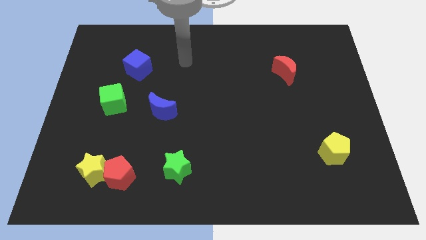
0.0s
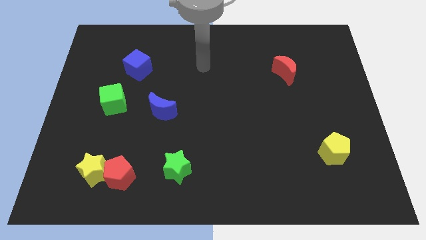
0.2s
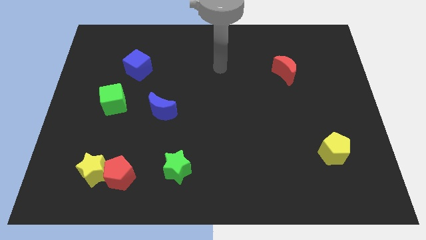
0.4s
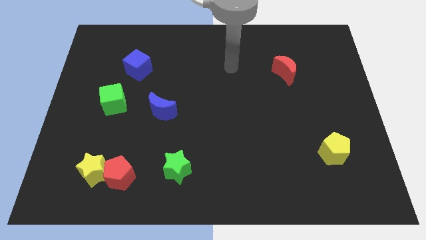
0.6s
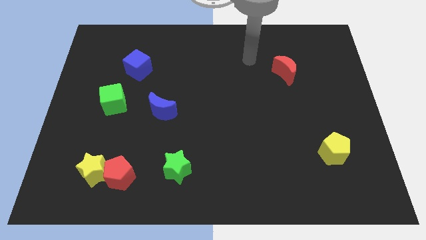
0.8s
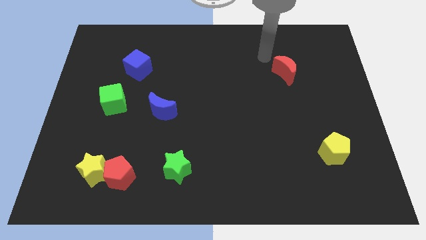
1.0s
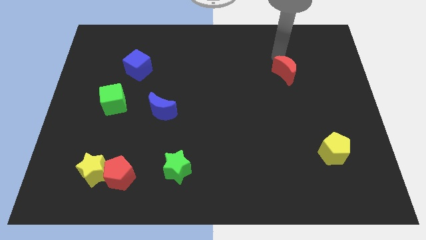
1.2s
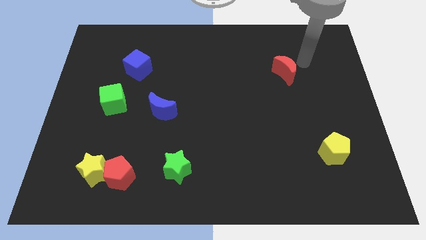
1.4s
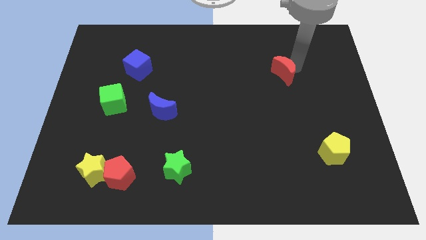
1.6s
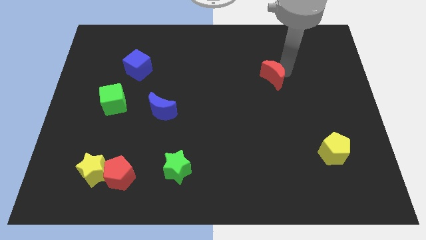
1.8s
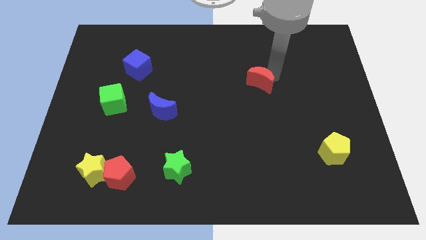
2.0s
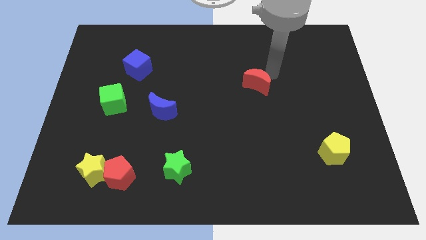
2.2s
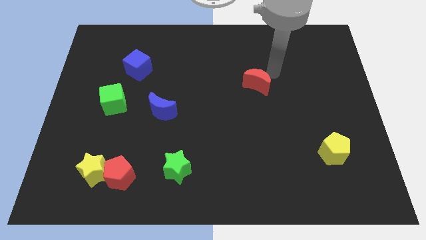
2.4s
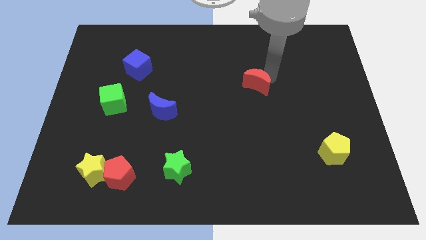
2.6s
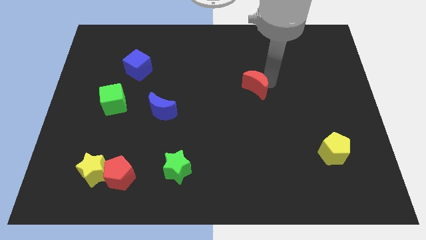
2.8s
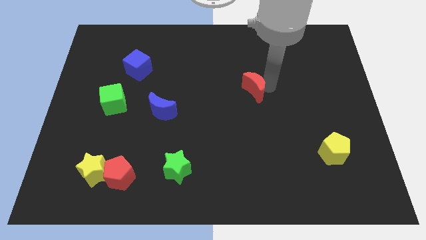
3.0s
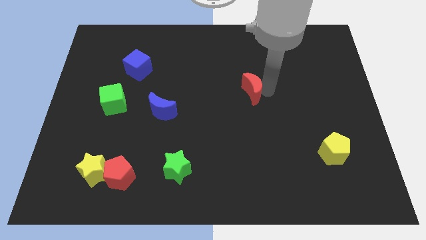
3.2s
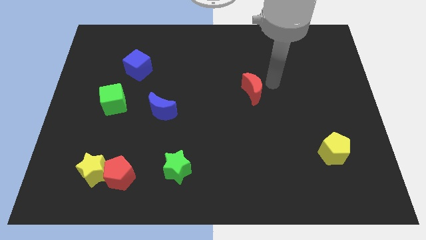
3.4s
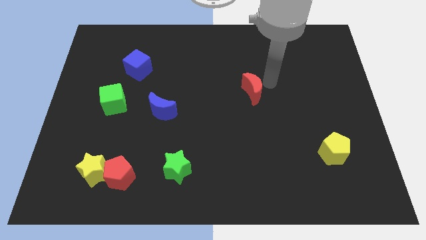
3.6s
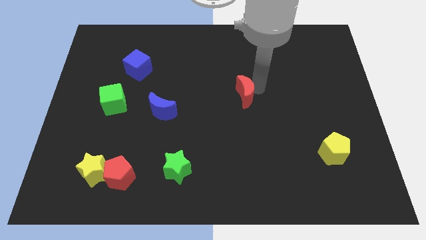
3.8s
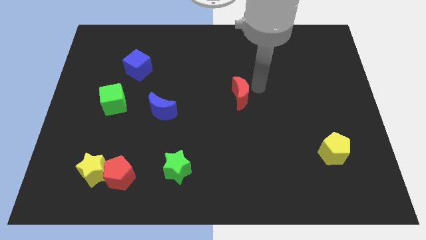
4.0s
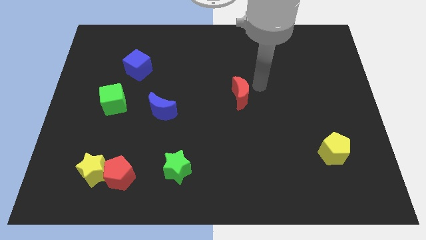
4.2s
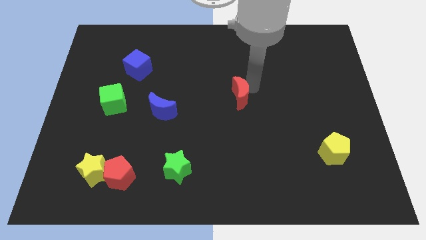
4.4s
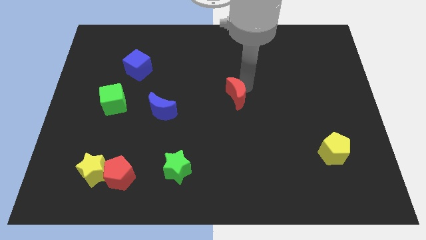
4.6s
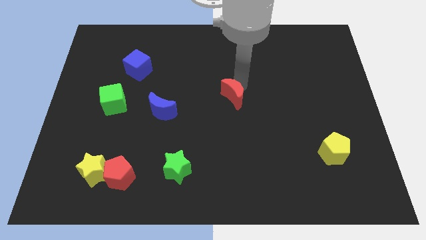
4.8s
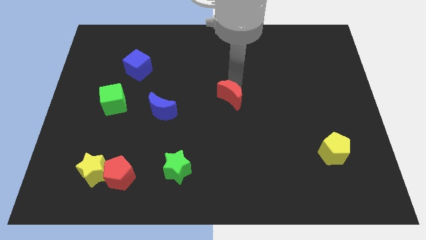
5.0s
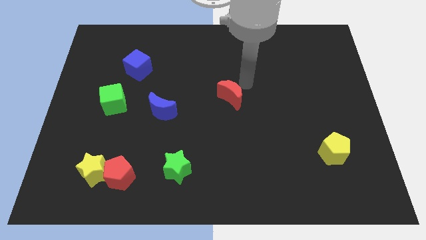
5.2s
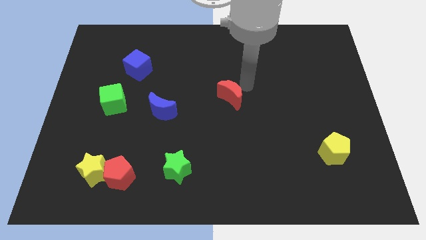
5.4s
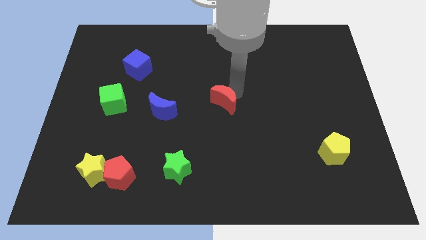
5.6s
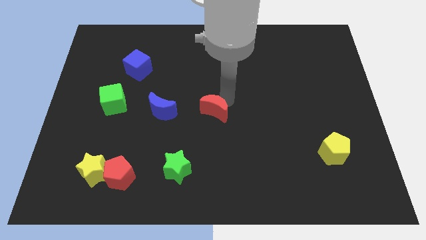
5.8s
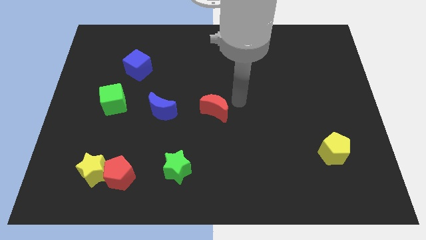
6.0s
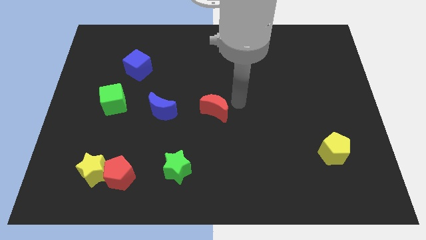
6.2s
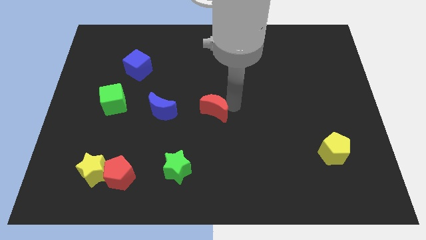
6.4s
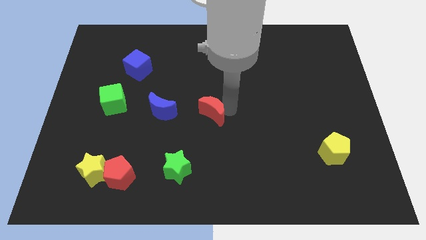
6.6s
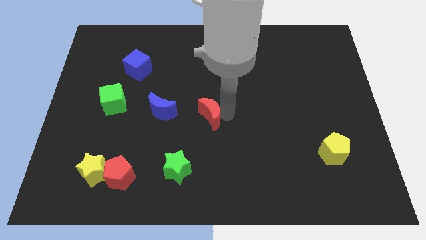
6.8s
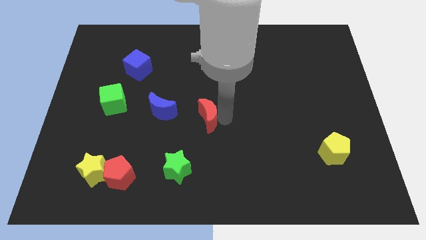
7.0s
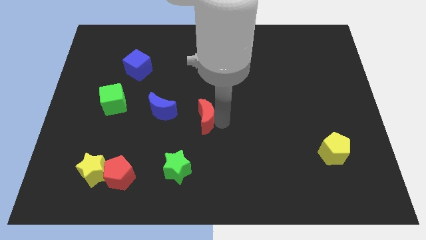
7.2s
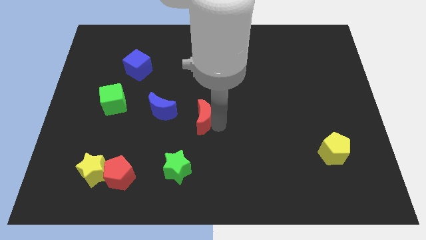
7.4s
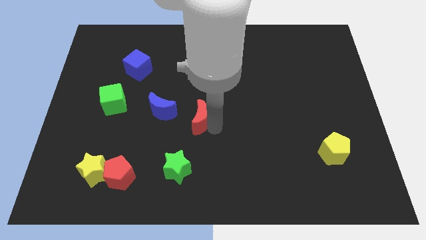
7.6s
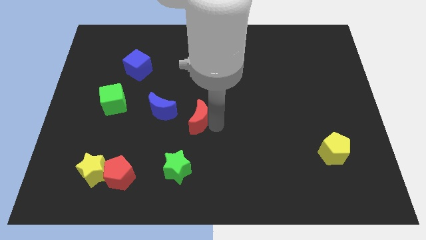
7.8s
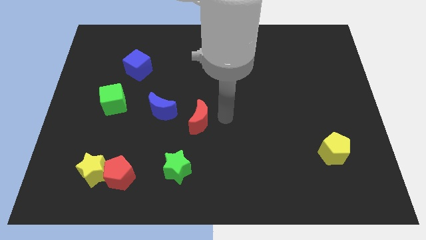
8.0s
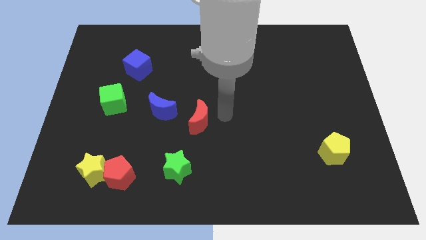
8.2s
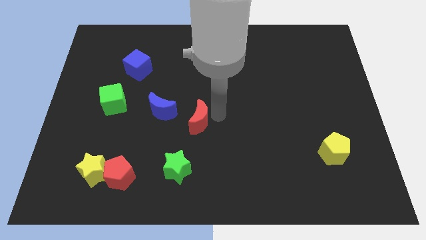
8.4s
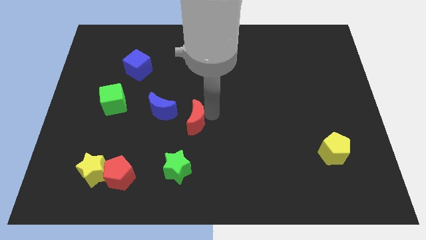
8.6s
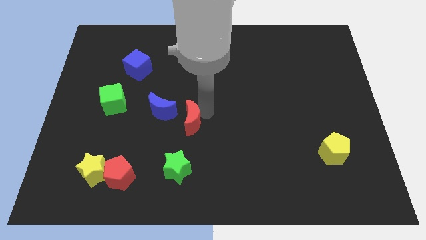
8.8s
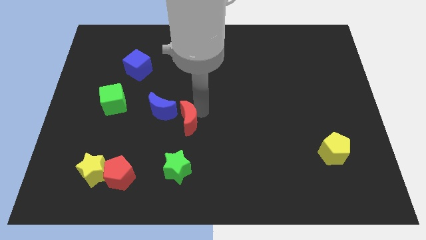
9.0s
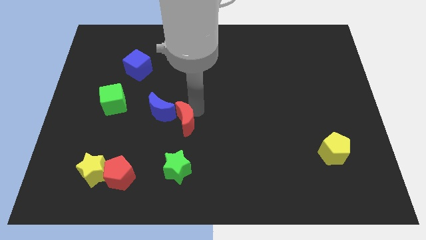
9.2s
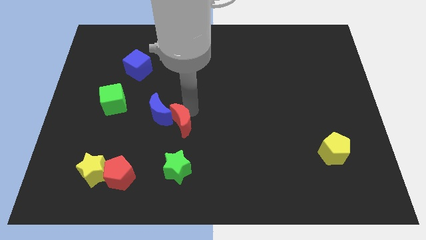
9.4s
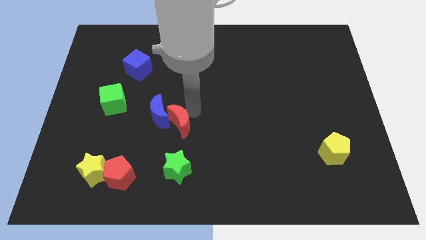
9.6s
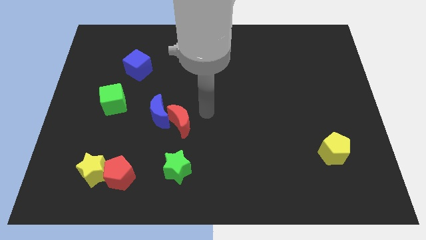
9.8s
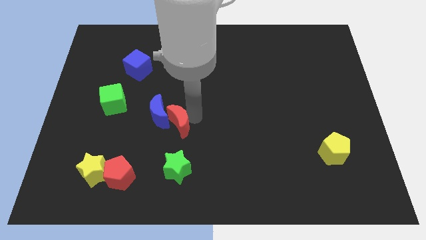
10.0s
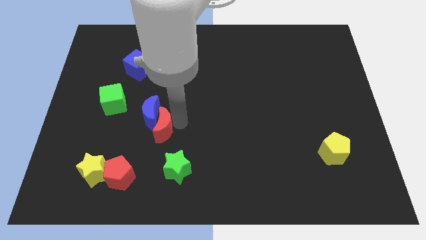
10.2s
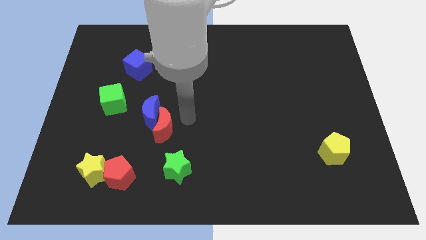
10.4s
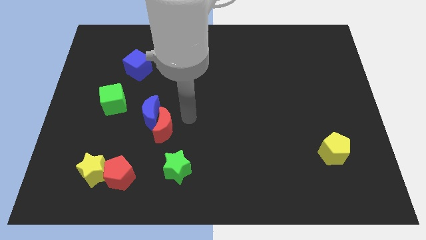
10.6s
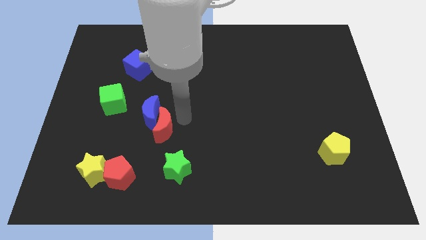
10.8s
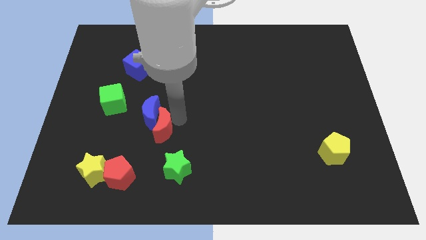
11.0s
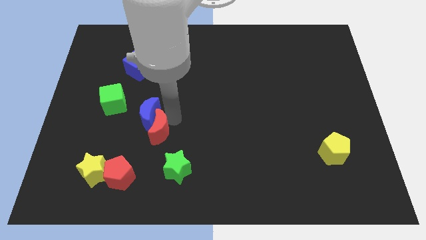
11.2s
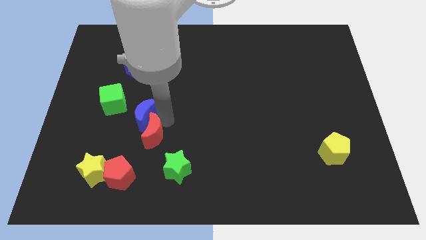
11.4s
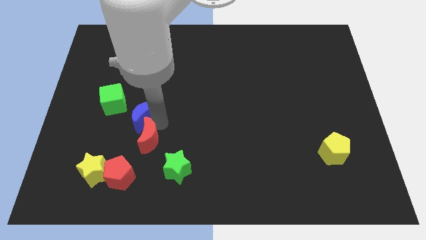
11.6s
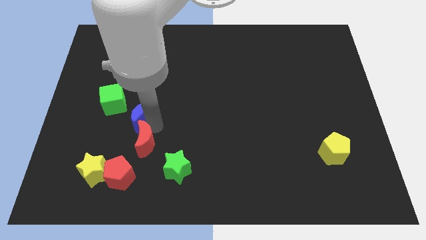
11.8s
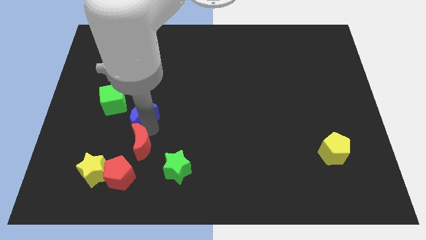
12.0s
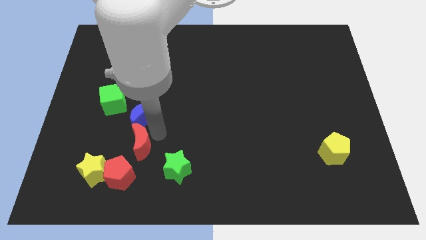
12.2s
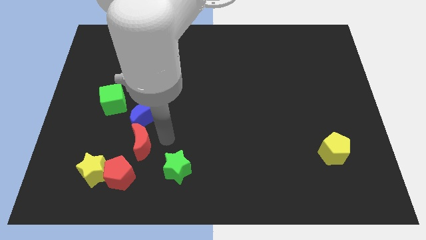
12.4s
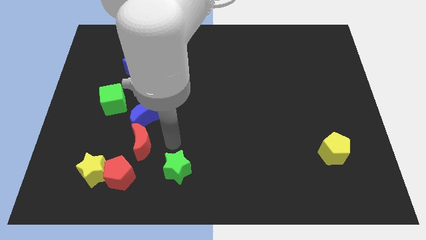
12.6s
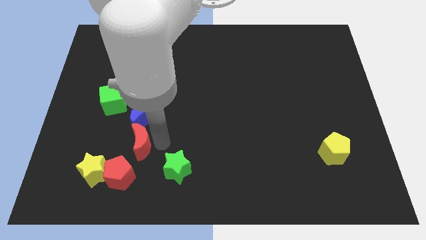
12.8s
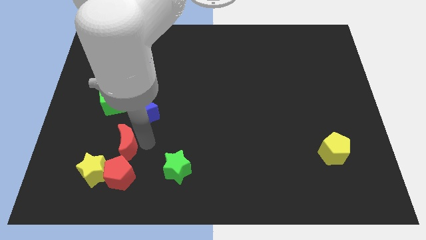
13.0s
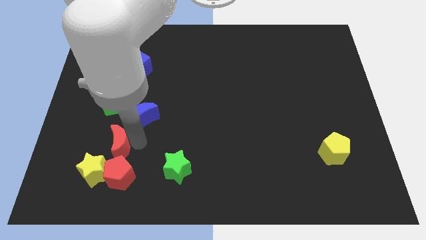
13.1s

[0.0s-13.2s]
push the red moon diagonally up and to the left of the red pentagon
